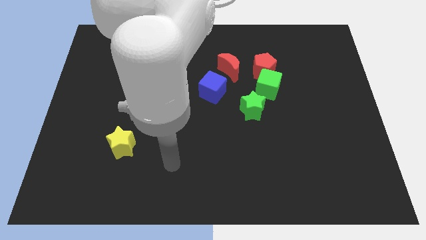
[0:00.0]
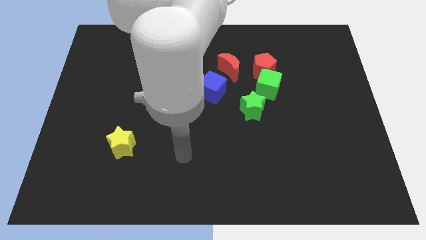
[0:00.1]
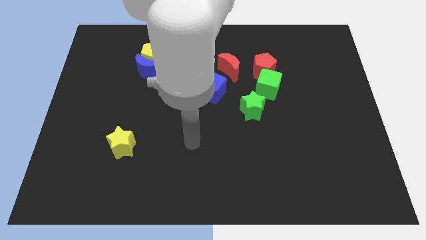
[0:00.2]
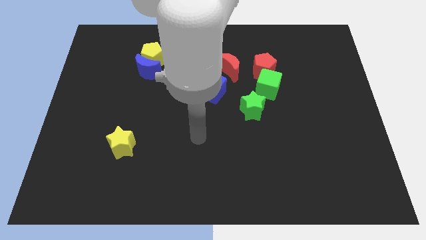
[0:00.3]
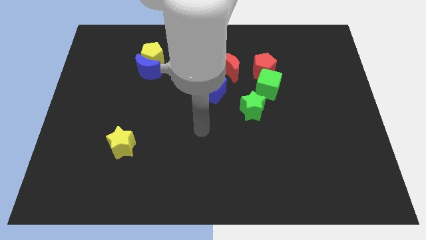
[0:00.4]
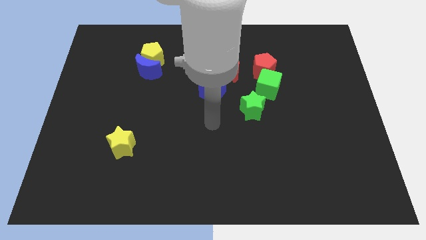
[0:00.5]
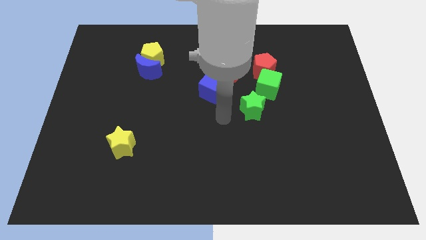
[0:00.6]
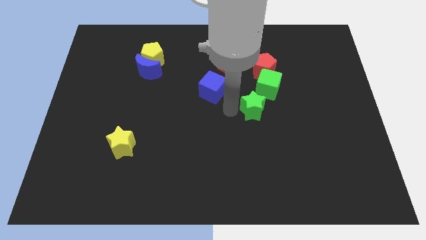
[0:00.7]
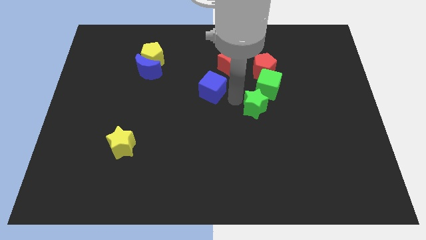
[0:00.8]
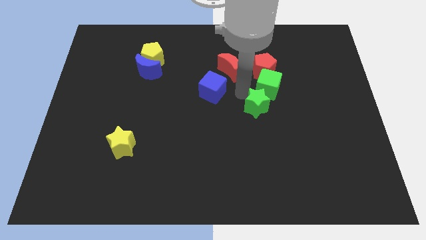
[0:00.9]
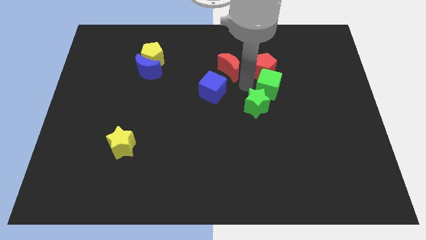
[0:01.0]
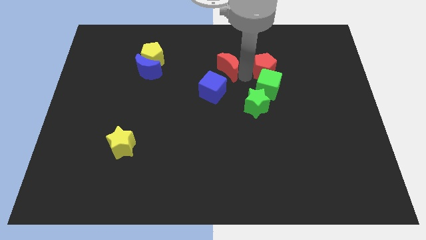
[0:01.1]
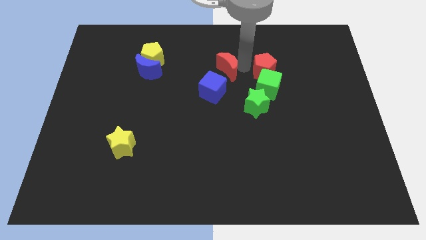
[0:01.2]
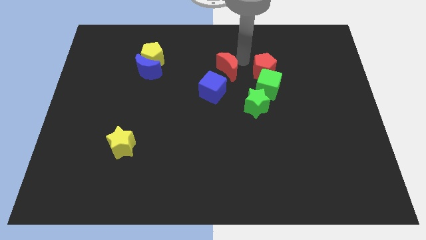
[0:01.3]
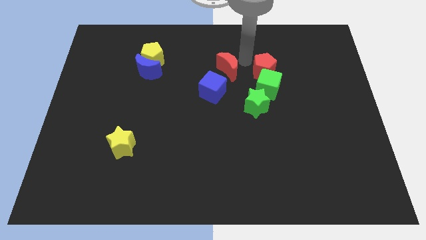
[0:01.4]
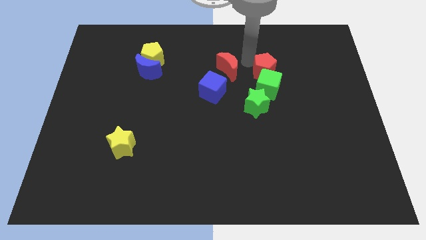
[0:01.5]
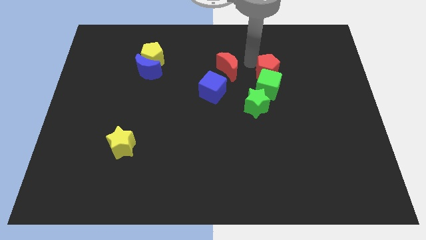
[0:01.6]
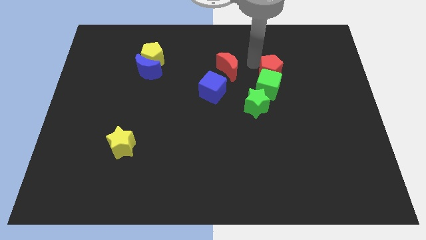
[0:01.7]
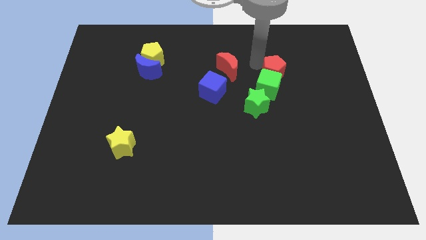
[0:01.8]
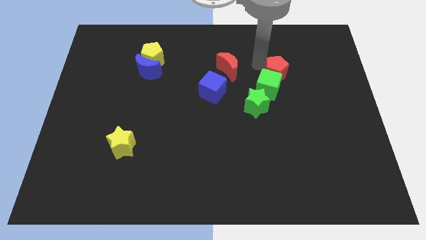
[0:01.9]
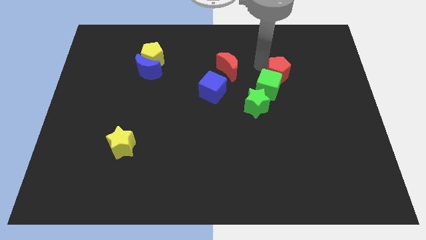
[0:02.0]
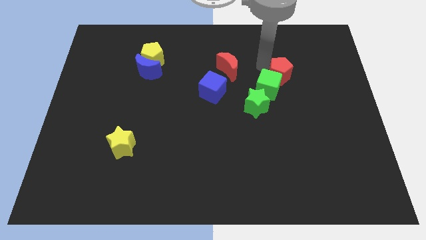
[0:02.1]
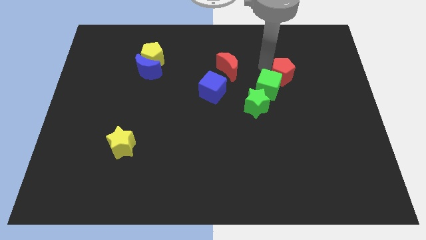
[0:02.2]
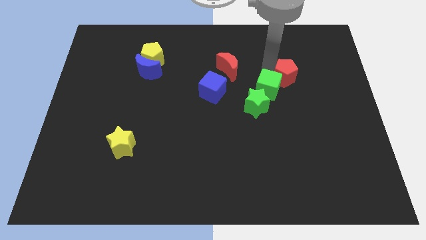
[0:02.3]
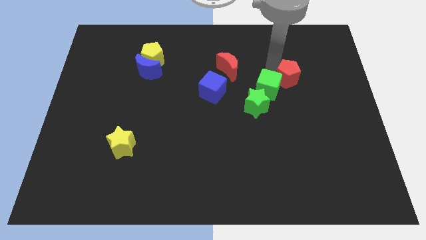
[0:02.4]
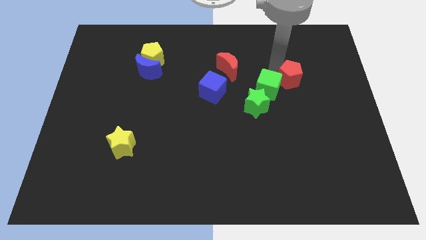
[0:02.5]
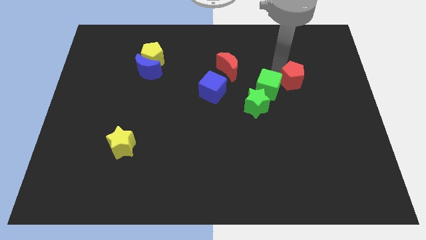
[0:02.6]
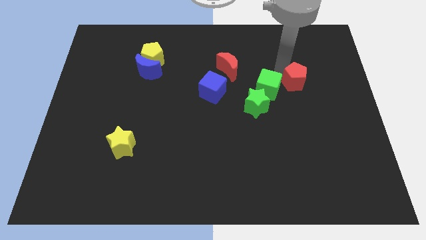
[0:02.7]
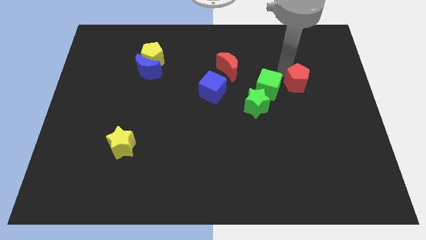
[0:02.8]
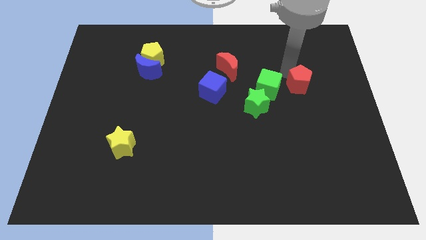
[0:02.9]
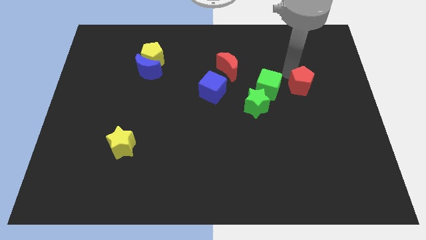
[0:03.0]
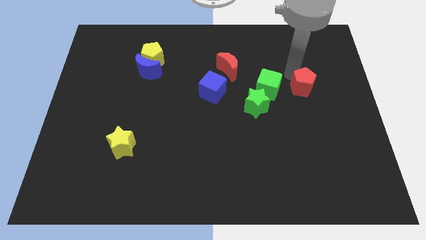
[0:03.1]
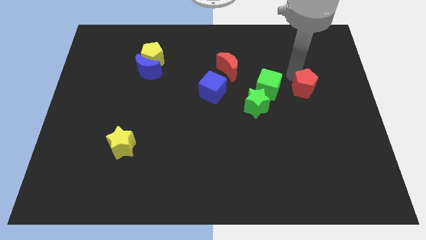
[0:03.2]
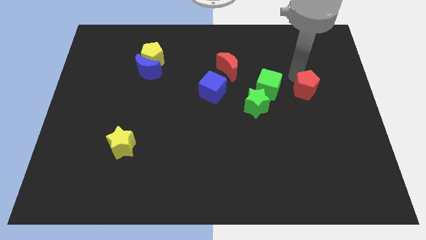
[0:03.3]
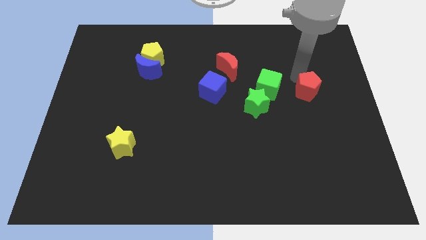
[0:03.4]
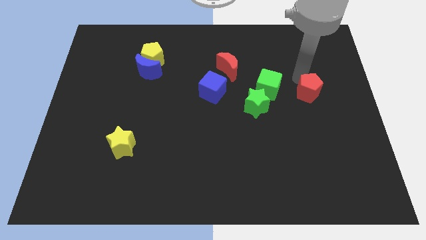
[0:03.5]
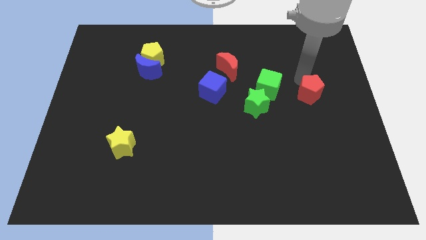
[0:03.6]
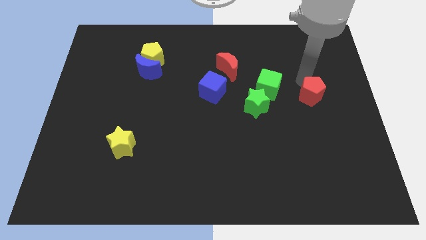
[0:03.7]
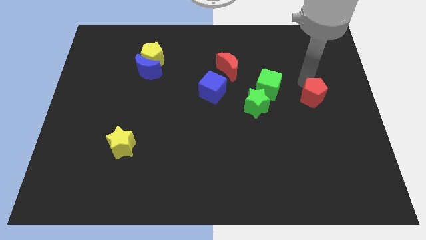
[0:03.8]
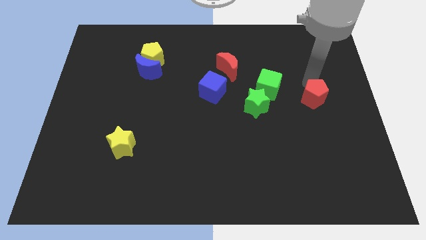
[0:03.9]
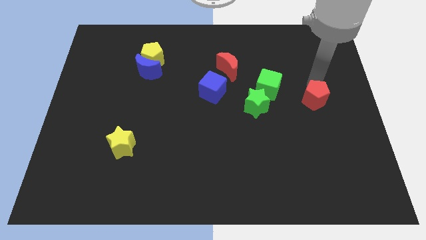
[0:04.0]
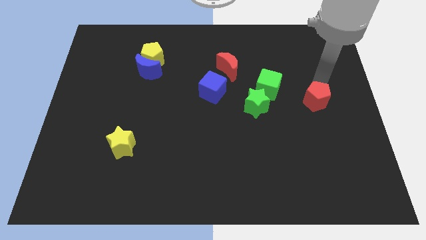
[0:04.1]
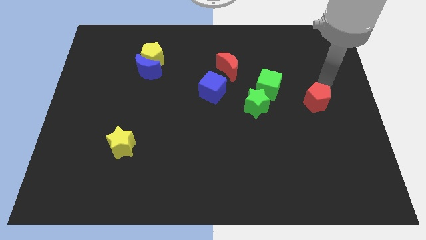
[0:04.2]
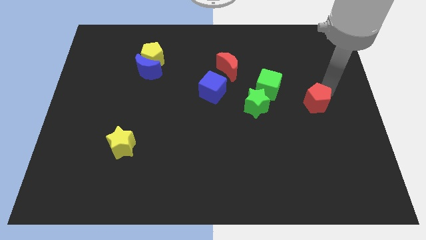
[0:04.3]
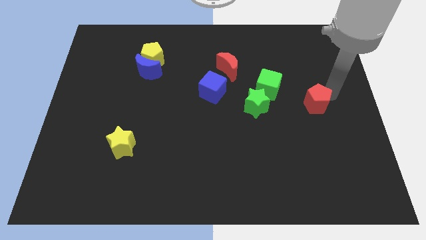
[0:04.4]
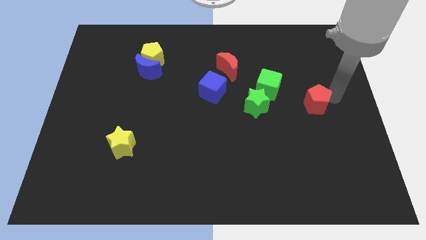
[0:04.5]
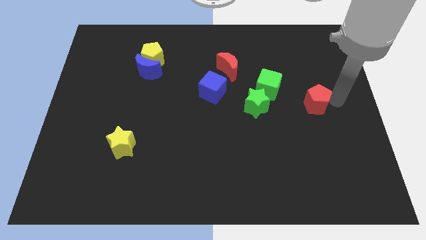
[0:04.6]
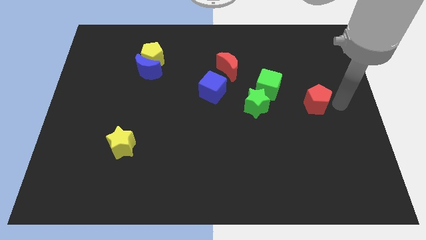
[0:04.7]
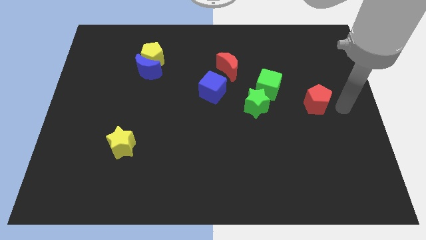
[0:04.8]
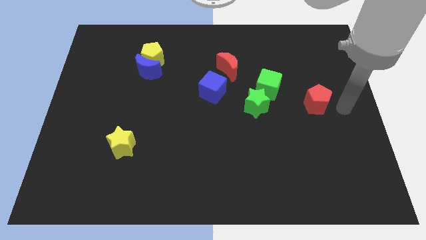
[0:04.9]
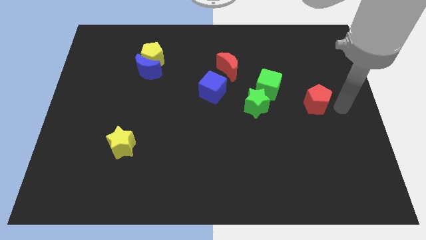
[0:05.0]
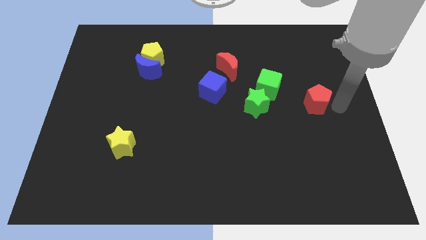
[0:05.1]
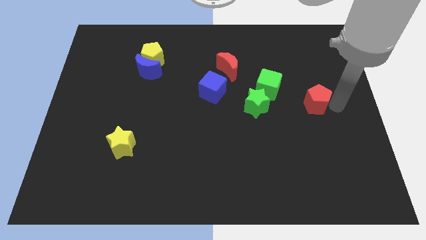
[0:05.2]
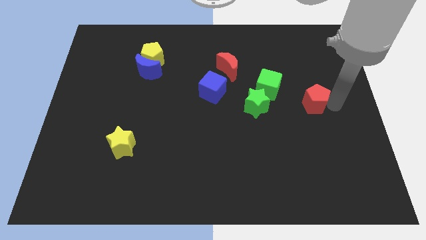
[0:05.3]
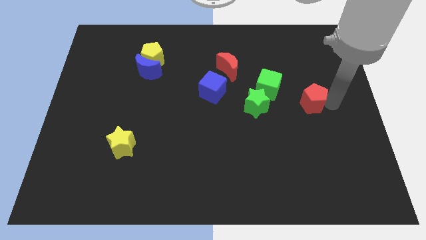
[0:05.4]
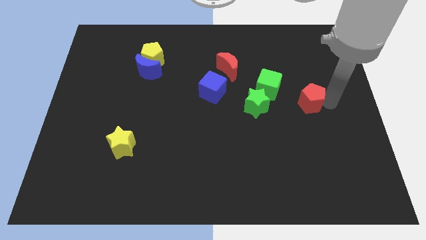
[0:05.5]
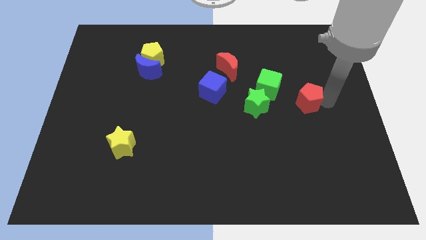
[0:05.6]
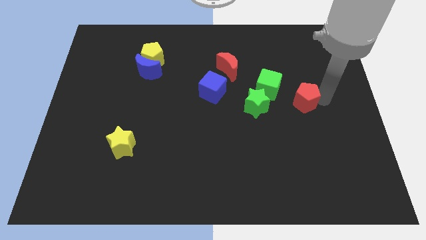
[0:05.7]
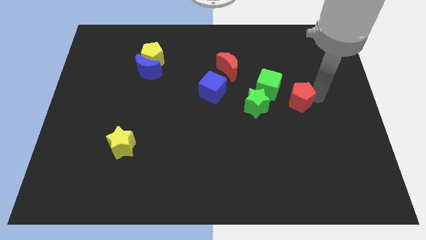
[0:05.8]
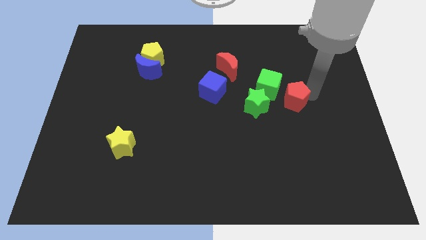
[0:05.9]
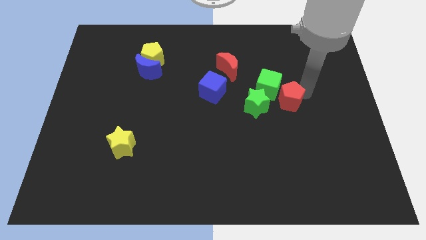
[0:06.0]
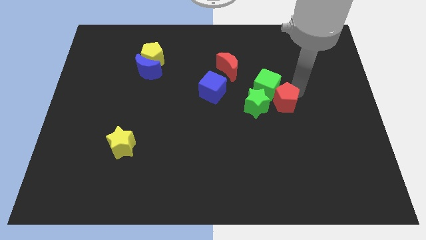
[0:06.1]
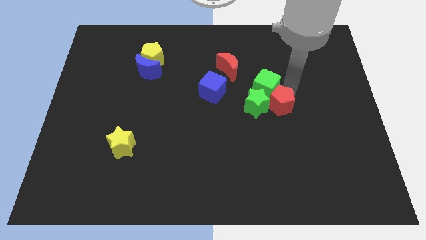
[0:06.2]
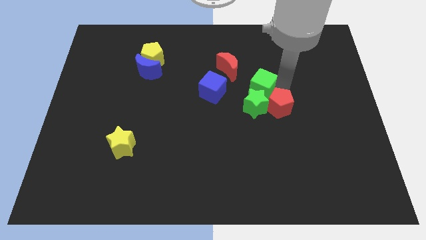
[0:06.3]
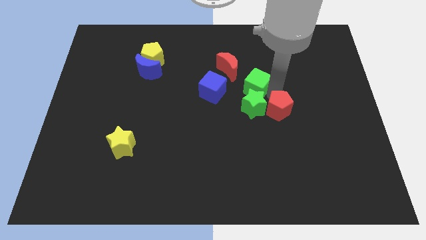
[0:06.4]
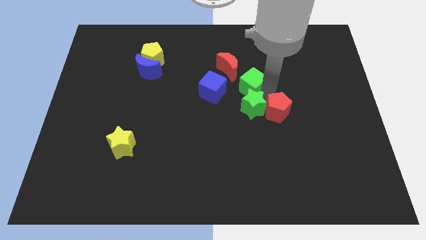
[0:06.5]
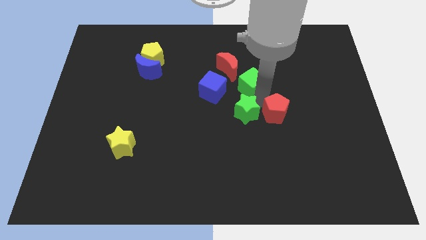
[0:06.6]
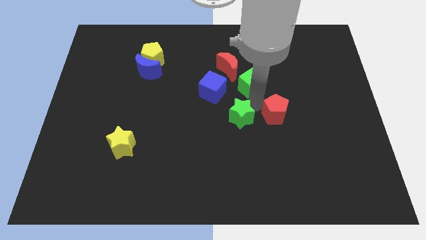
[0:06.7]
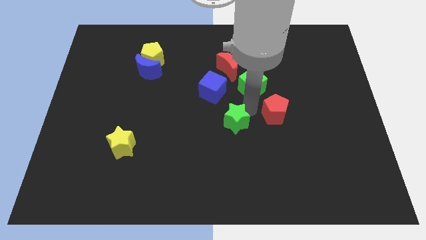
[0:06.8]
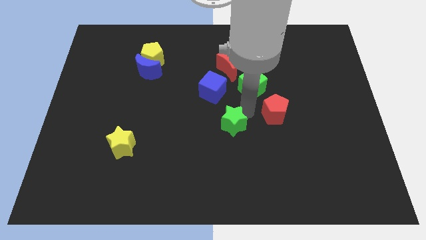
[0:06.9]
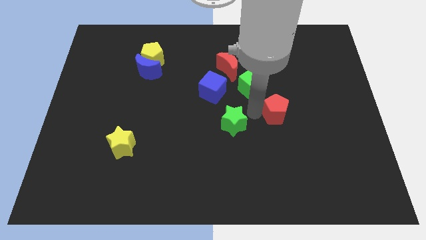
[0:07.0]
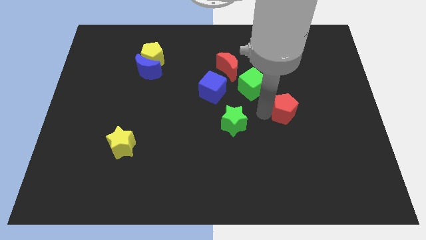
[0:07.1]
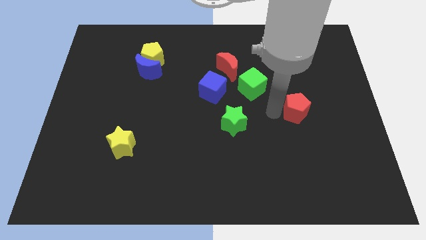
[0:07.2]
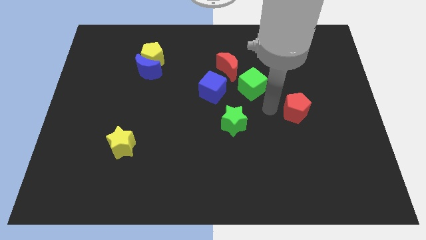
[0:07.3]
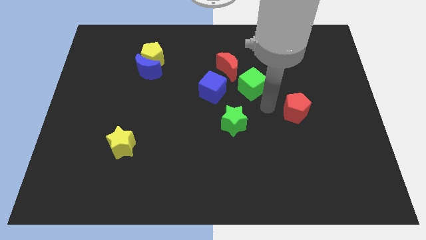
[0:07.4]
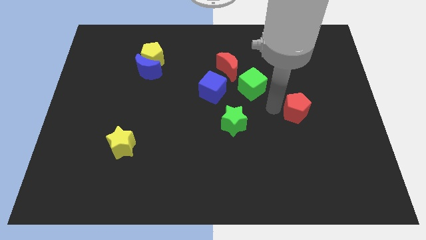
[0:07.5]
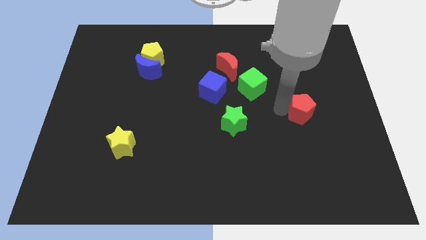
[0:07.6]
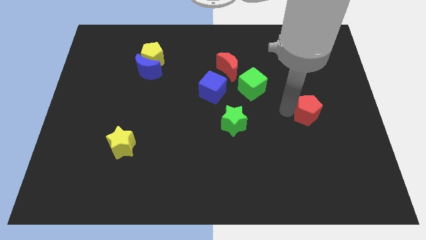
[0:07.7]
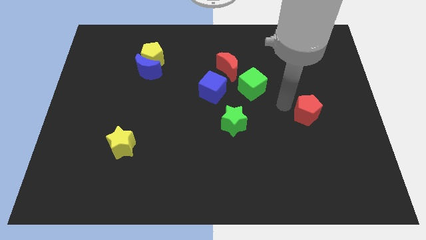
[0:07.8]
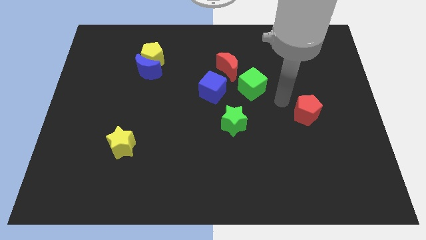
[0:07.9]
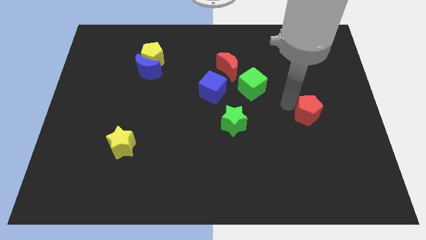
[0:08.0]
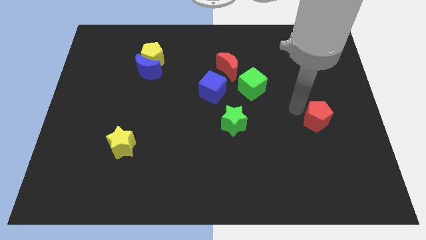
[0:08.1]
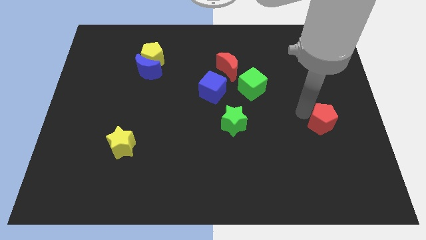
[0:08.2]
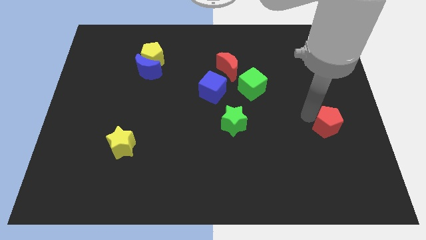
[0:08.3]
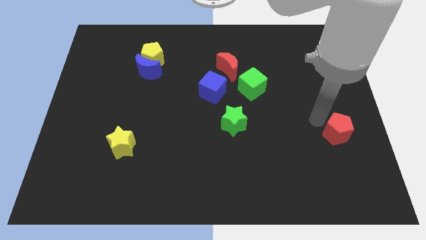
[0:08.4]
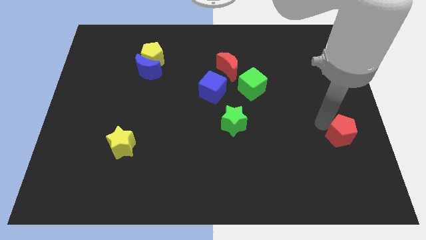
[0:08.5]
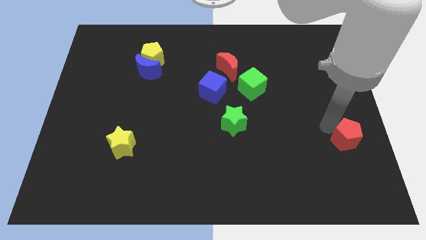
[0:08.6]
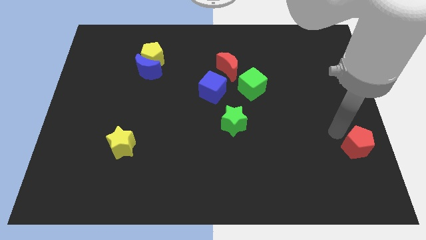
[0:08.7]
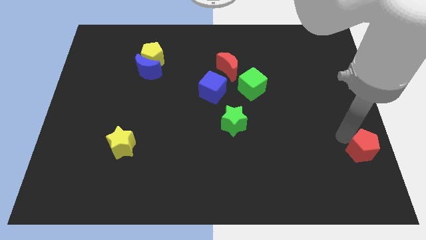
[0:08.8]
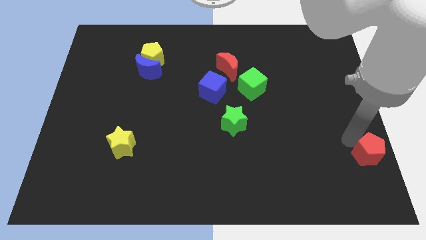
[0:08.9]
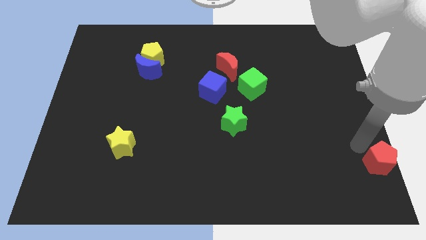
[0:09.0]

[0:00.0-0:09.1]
push the red pentagon to the bottom right corner
